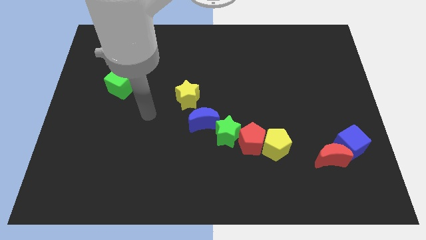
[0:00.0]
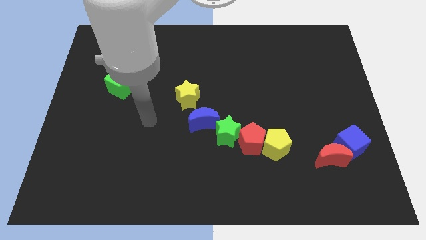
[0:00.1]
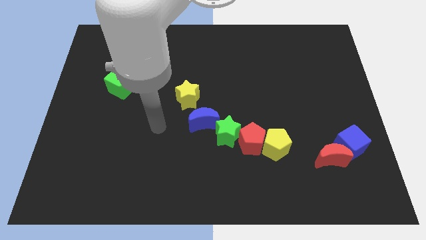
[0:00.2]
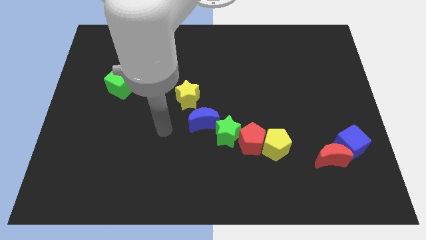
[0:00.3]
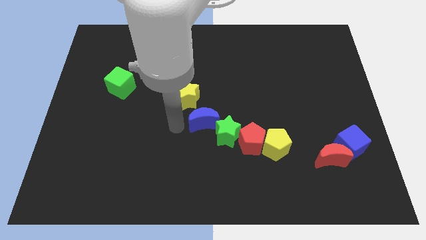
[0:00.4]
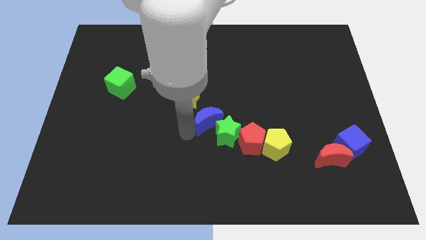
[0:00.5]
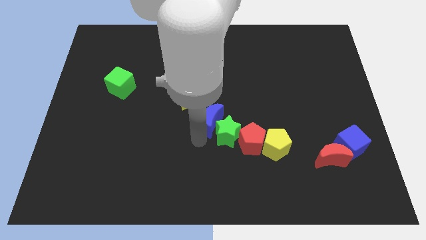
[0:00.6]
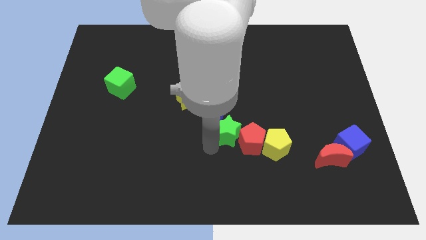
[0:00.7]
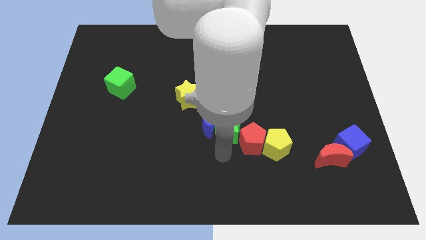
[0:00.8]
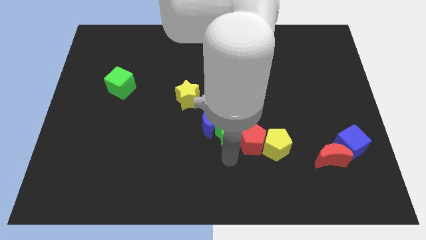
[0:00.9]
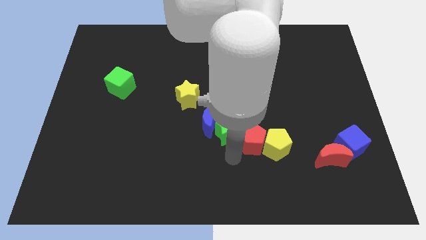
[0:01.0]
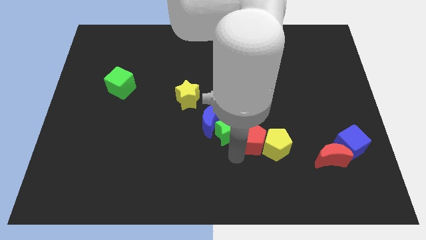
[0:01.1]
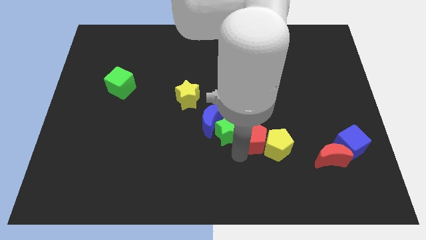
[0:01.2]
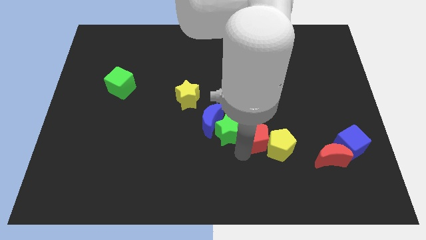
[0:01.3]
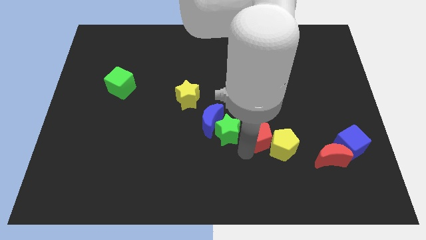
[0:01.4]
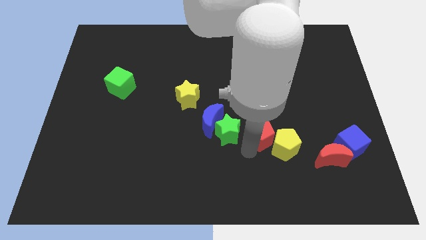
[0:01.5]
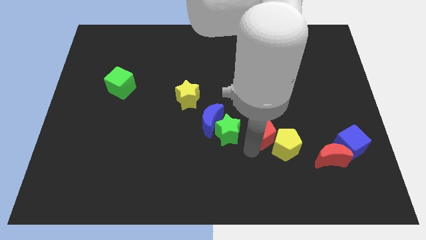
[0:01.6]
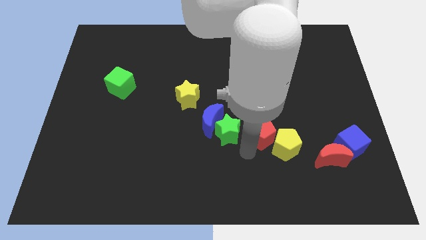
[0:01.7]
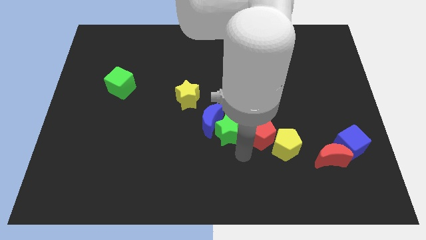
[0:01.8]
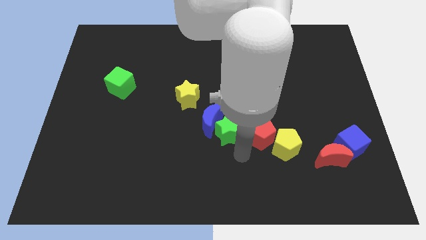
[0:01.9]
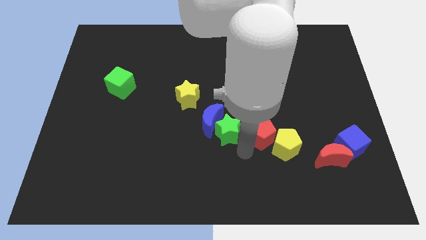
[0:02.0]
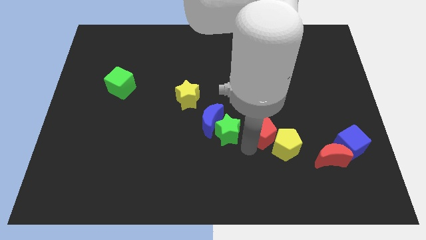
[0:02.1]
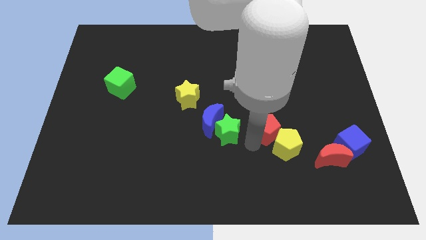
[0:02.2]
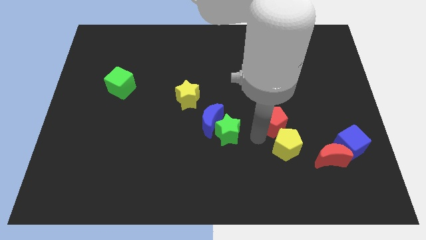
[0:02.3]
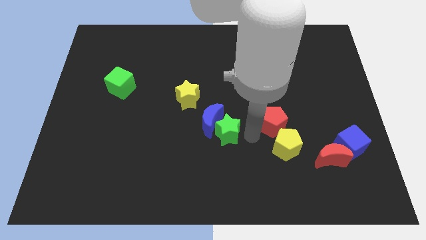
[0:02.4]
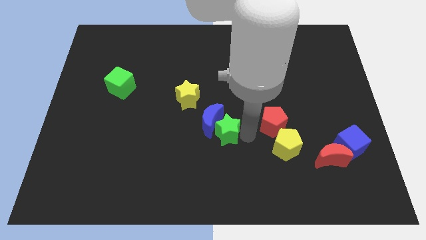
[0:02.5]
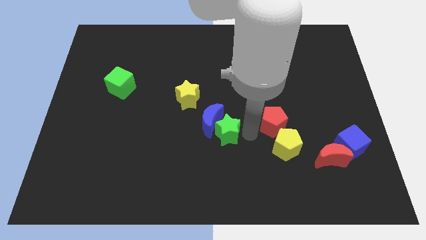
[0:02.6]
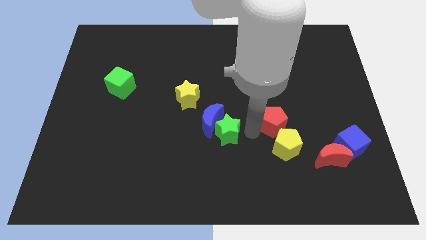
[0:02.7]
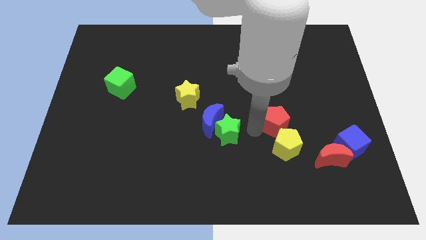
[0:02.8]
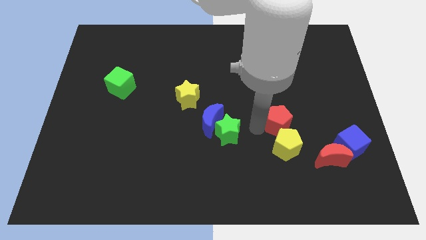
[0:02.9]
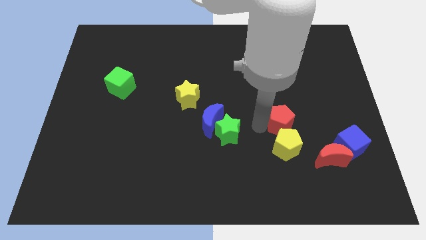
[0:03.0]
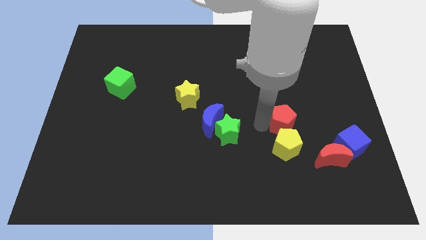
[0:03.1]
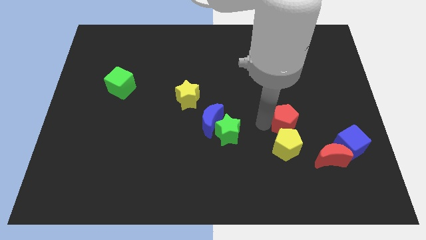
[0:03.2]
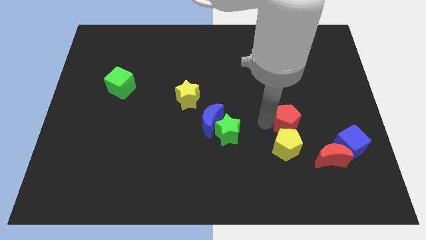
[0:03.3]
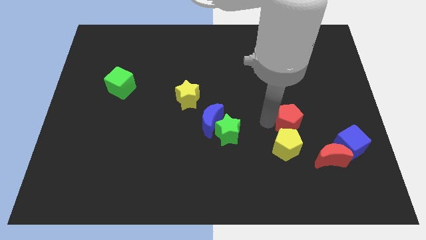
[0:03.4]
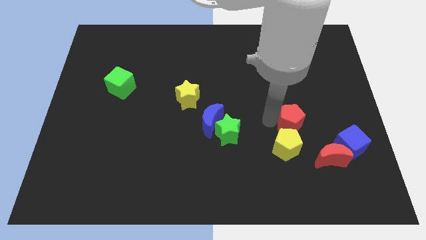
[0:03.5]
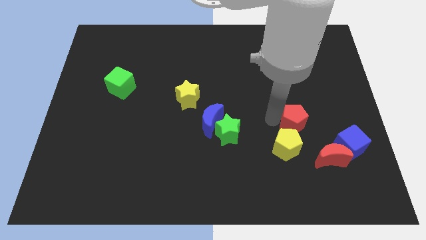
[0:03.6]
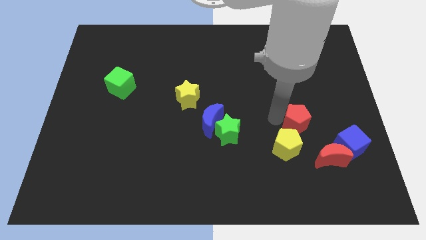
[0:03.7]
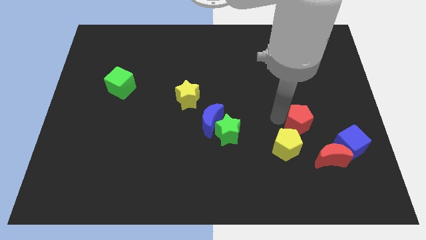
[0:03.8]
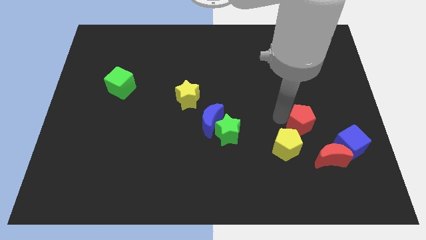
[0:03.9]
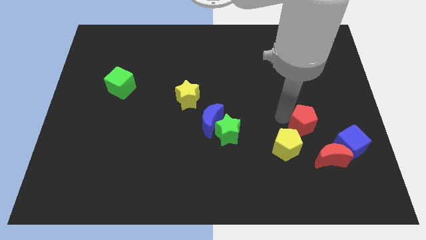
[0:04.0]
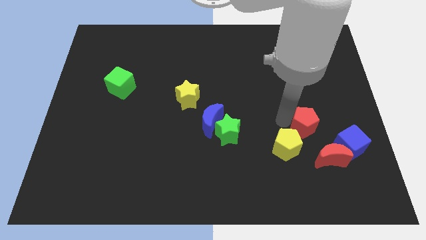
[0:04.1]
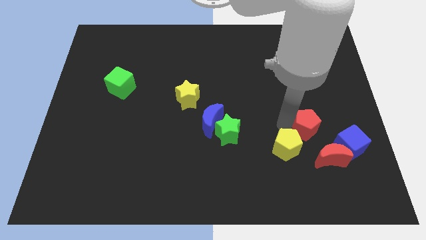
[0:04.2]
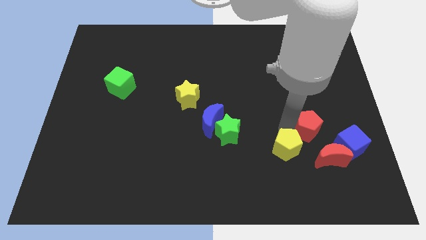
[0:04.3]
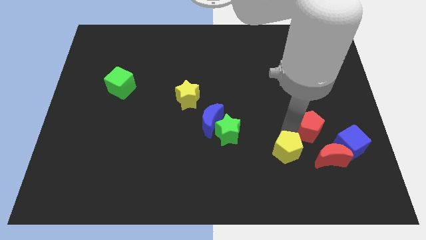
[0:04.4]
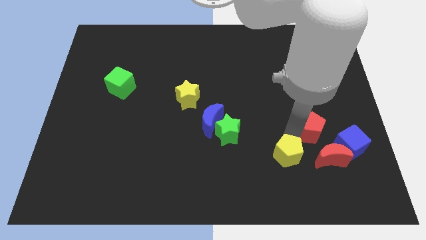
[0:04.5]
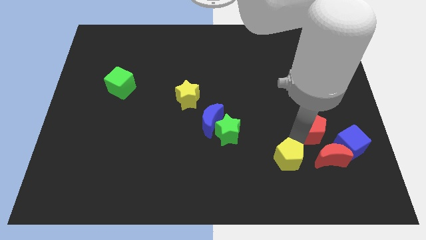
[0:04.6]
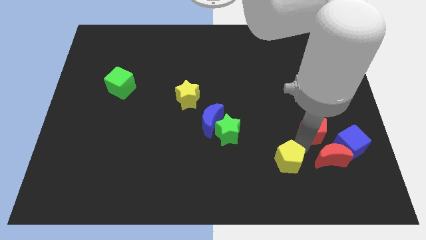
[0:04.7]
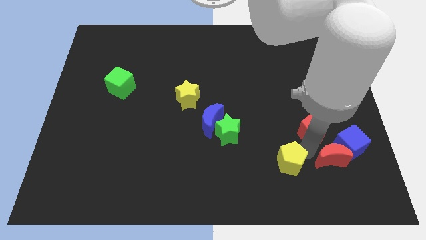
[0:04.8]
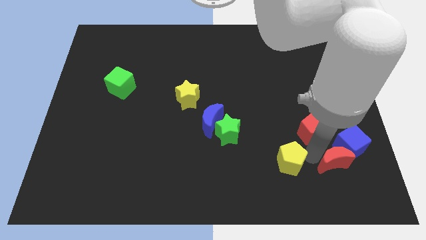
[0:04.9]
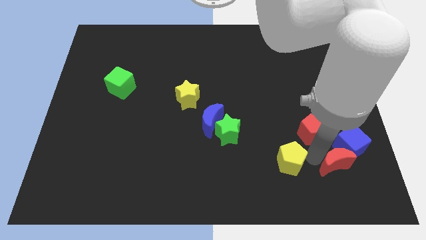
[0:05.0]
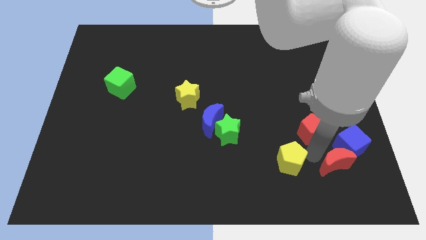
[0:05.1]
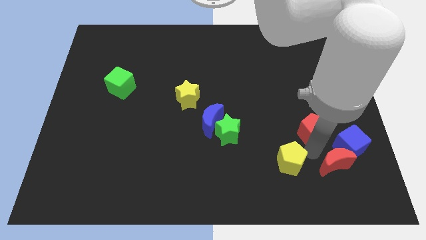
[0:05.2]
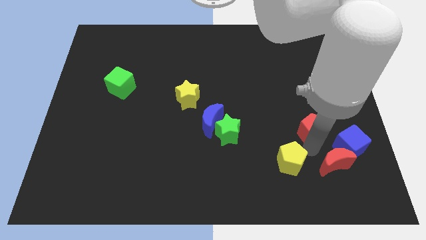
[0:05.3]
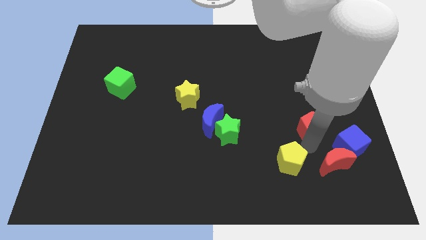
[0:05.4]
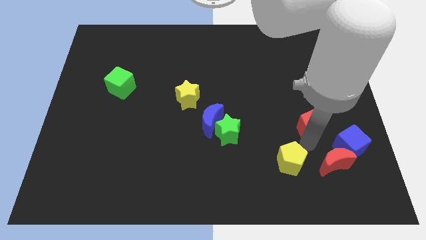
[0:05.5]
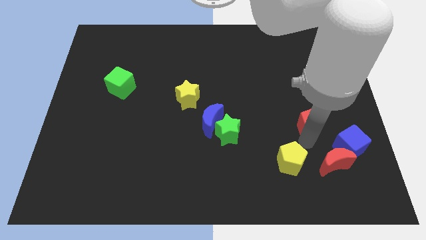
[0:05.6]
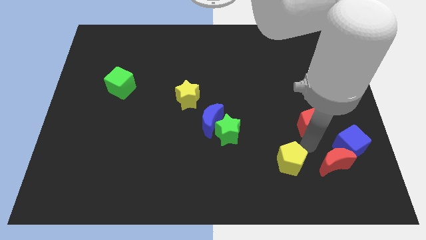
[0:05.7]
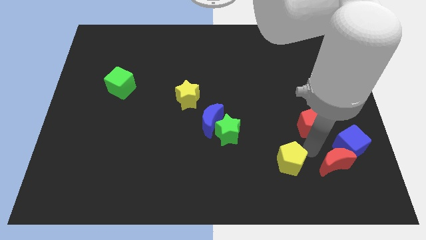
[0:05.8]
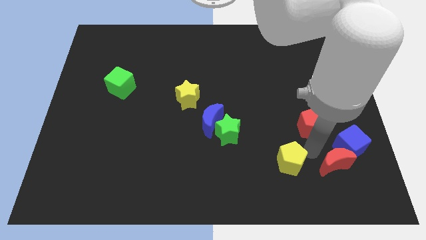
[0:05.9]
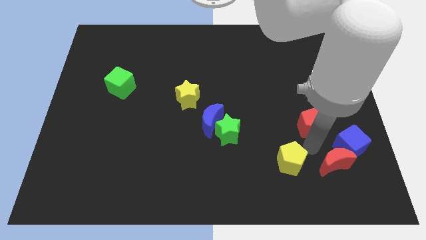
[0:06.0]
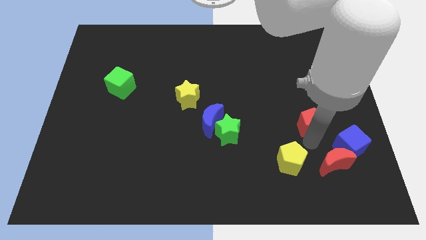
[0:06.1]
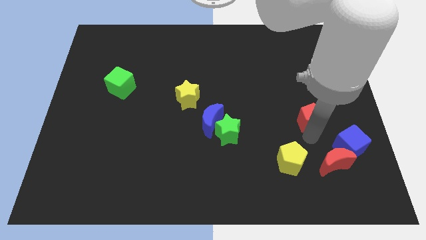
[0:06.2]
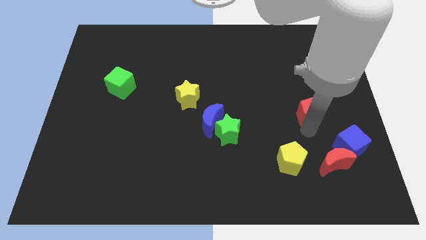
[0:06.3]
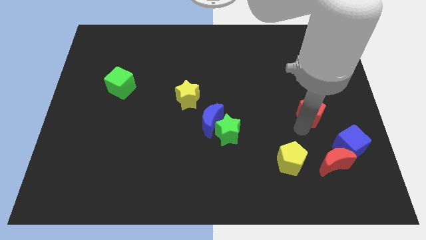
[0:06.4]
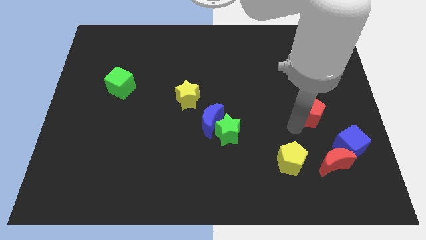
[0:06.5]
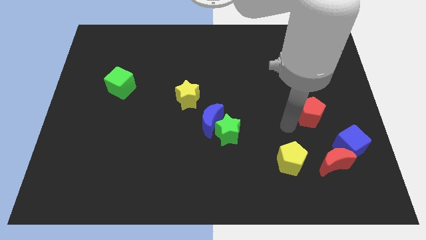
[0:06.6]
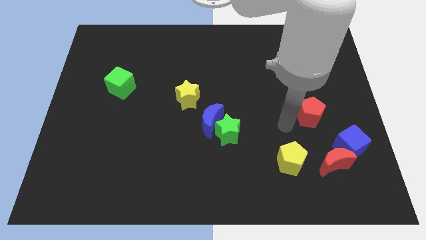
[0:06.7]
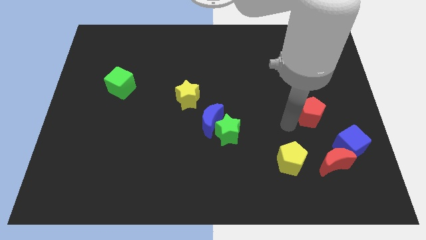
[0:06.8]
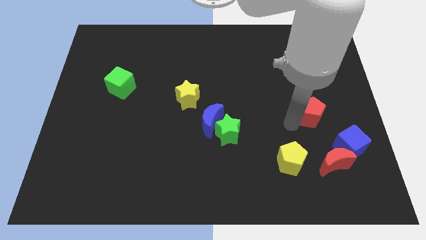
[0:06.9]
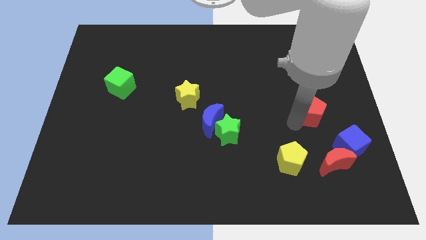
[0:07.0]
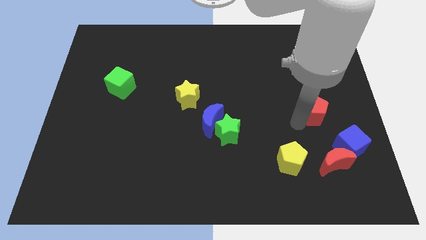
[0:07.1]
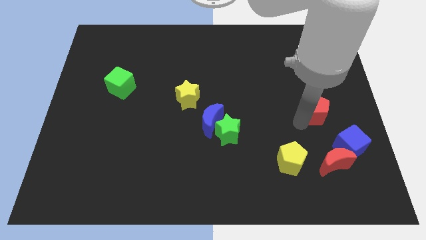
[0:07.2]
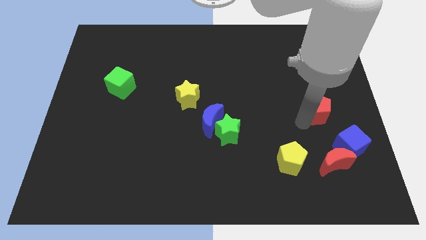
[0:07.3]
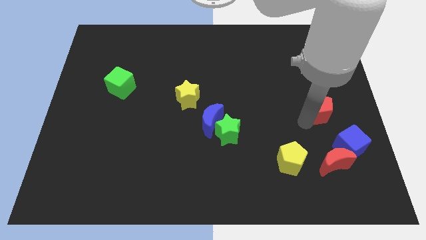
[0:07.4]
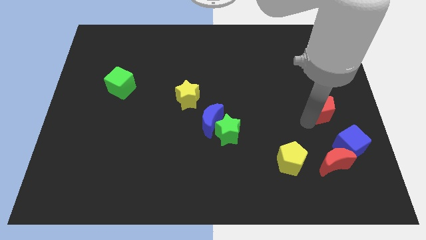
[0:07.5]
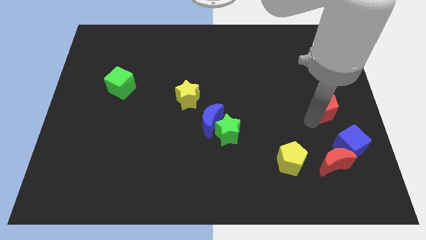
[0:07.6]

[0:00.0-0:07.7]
push the red pentagon to the right side of the board
